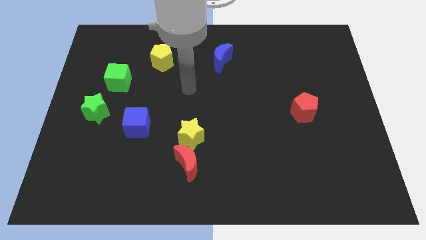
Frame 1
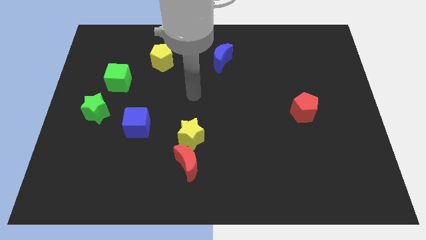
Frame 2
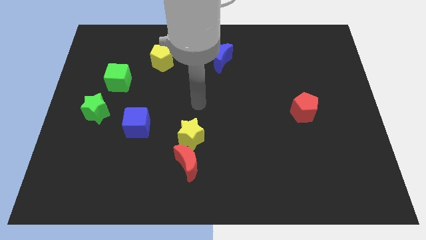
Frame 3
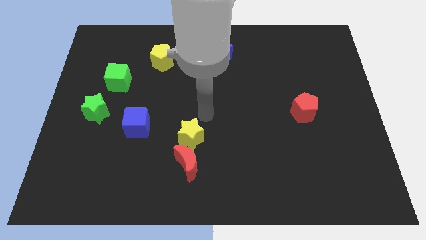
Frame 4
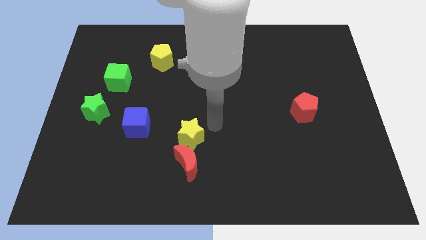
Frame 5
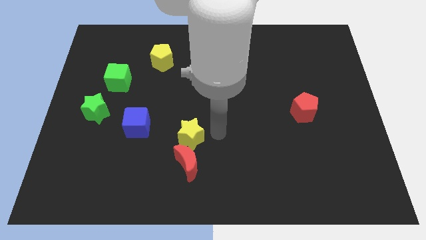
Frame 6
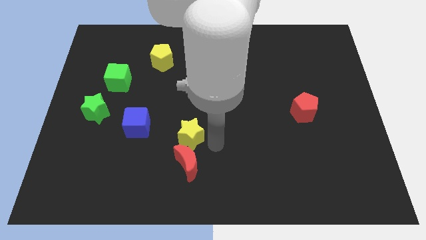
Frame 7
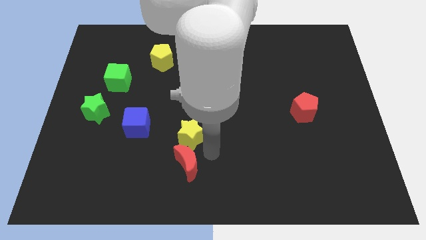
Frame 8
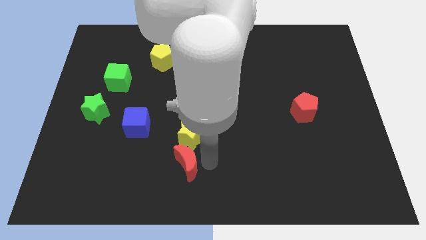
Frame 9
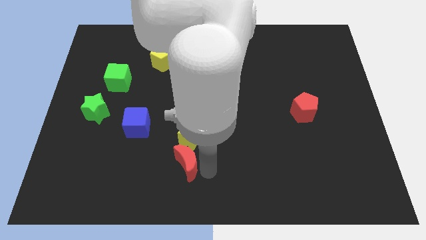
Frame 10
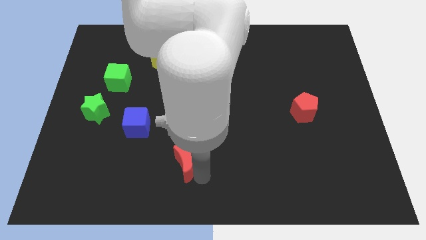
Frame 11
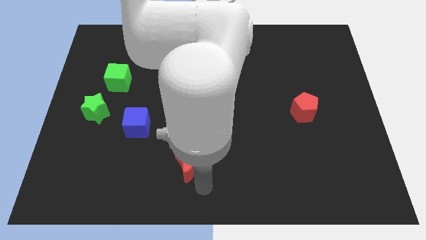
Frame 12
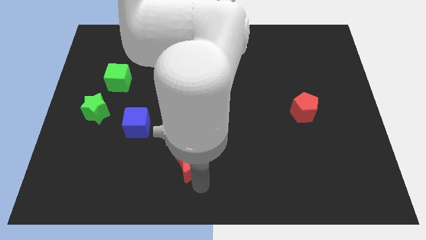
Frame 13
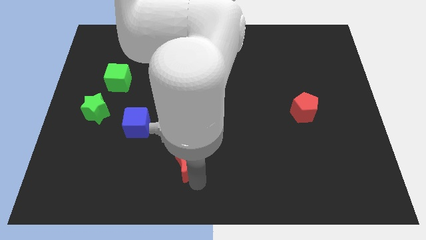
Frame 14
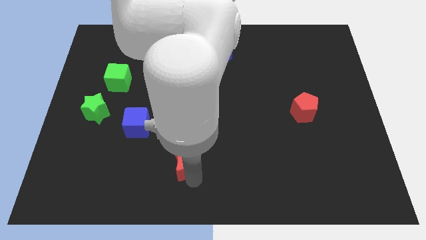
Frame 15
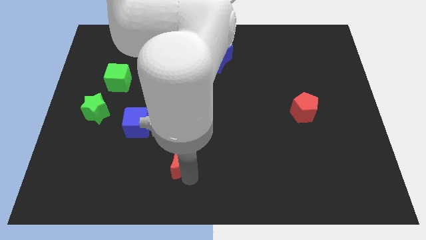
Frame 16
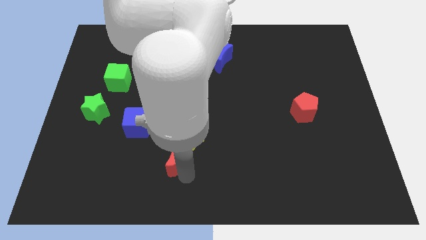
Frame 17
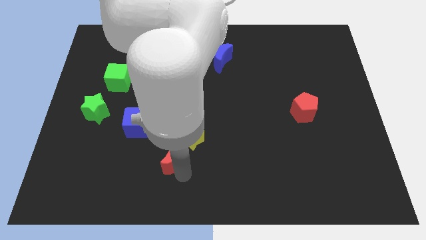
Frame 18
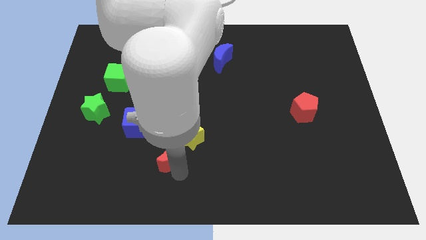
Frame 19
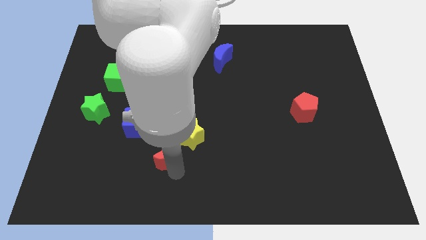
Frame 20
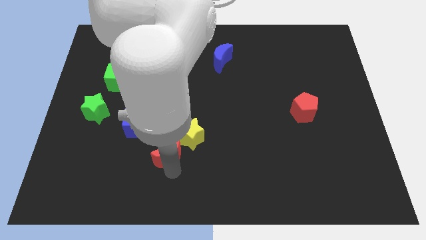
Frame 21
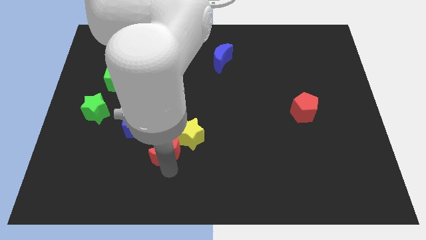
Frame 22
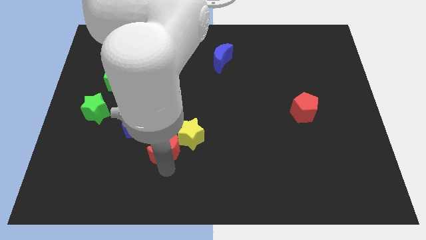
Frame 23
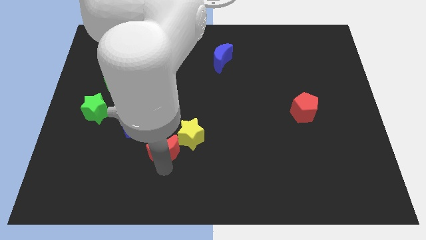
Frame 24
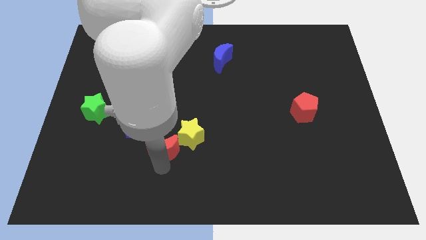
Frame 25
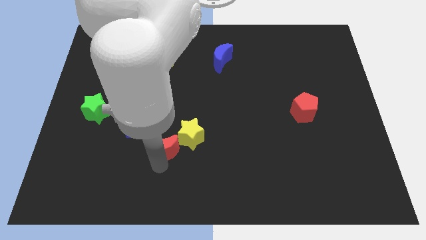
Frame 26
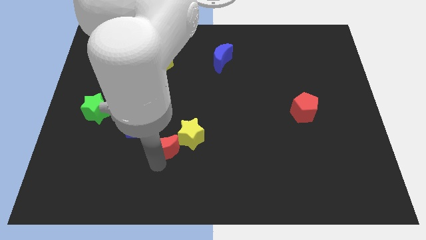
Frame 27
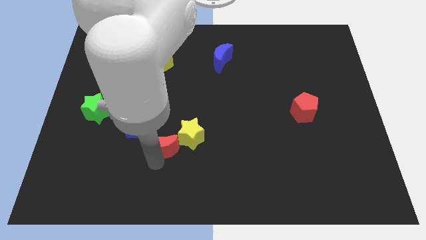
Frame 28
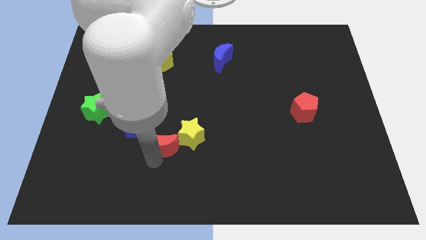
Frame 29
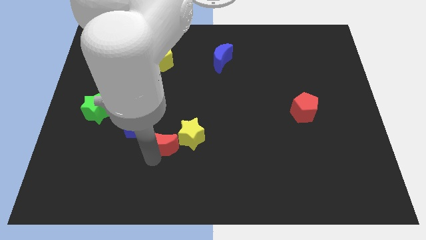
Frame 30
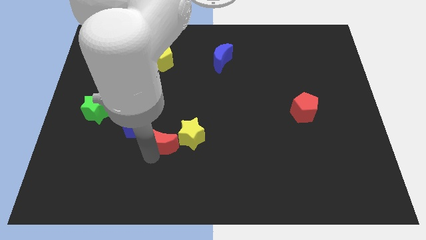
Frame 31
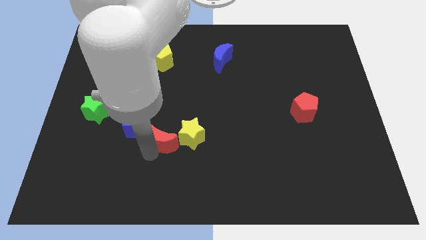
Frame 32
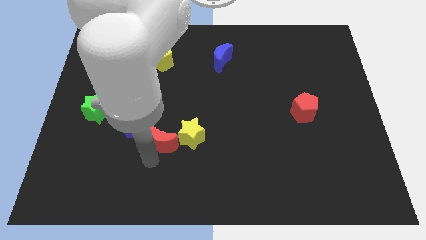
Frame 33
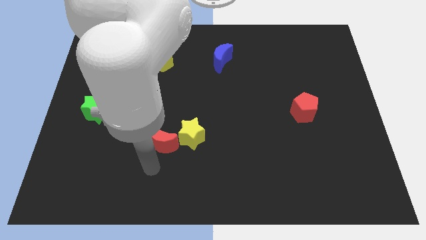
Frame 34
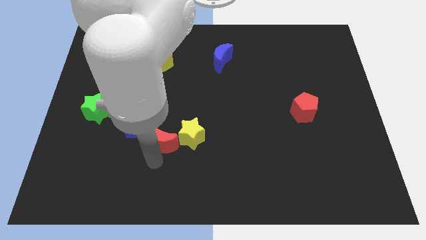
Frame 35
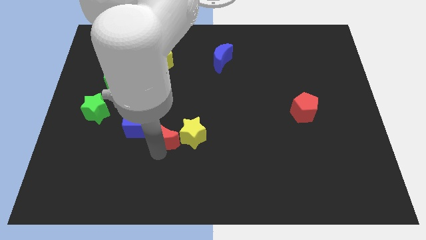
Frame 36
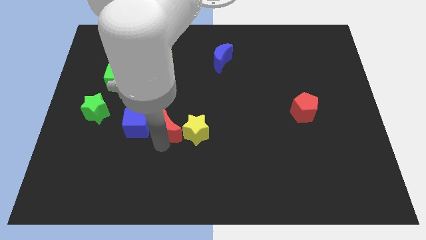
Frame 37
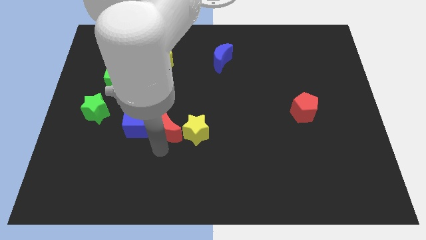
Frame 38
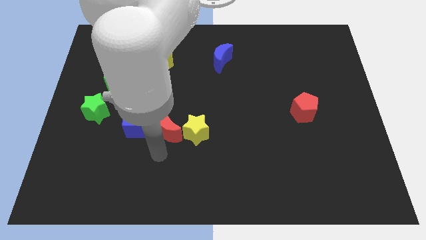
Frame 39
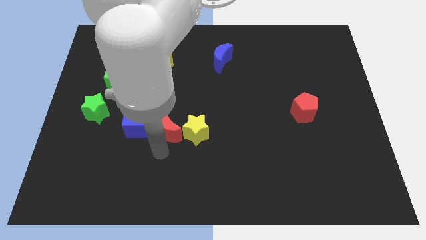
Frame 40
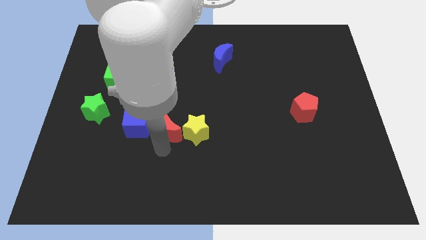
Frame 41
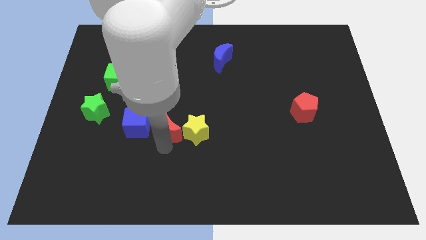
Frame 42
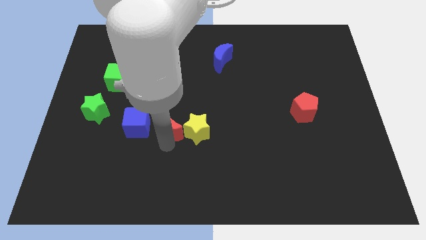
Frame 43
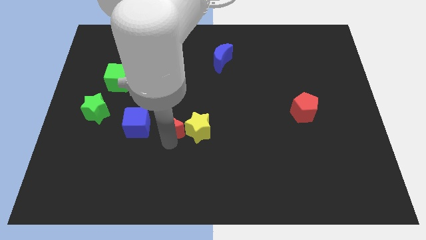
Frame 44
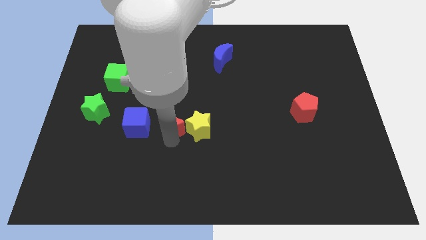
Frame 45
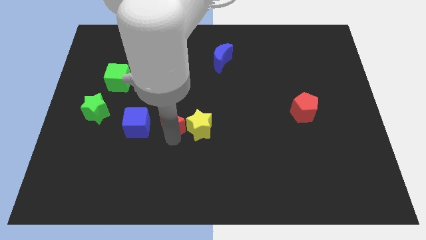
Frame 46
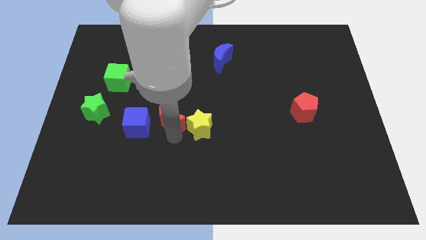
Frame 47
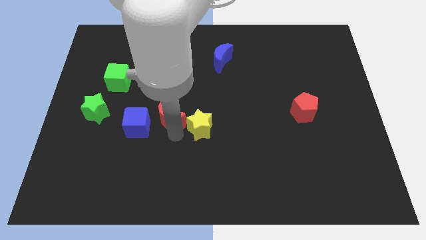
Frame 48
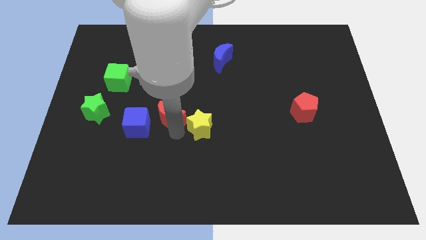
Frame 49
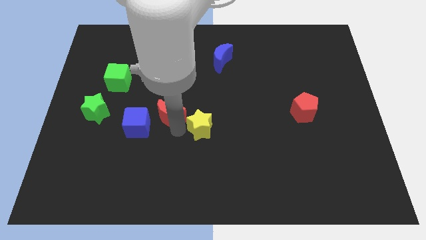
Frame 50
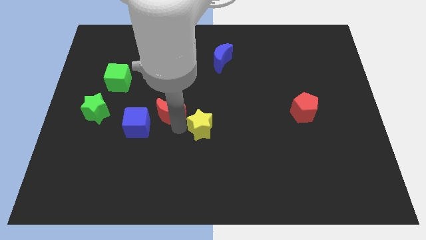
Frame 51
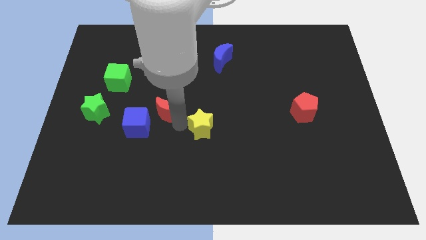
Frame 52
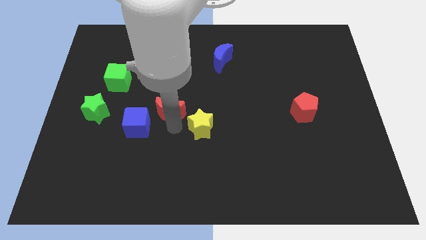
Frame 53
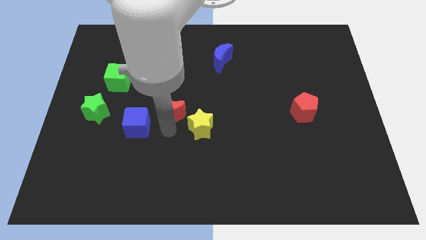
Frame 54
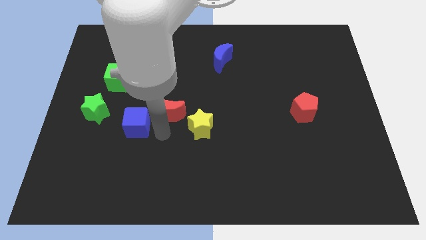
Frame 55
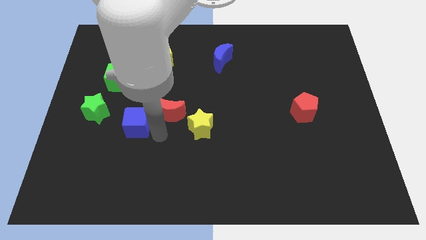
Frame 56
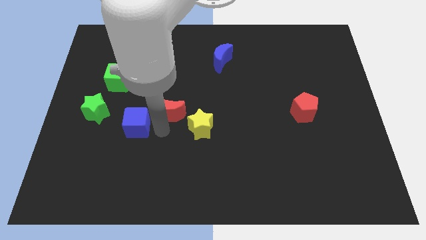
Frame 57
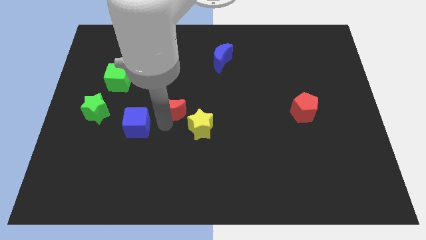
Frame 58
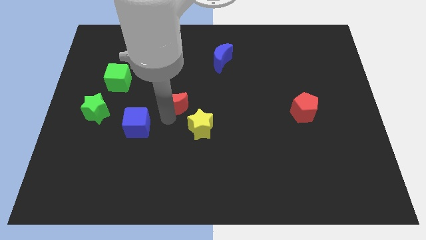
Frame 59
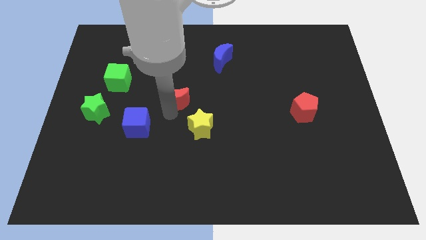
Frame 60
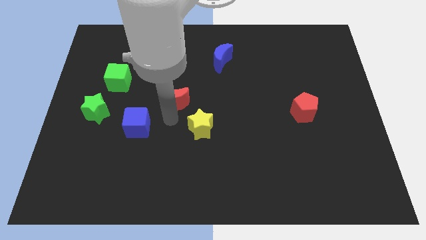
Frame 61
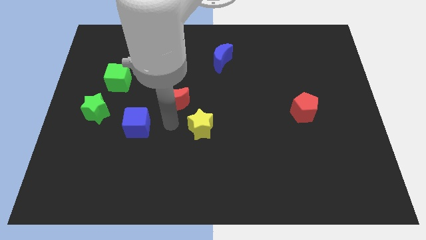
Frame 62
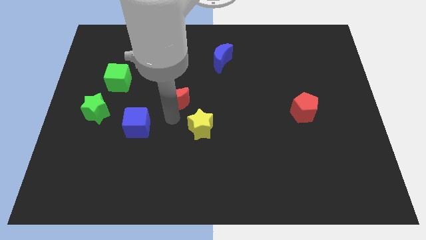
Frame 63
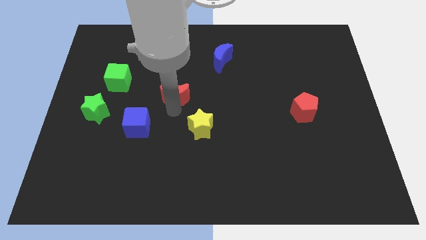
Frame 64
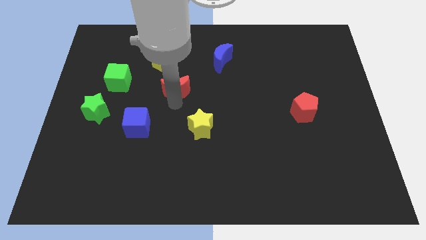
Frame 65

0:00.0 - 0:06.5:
put the red moon to the bottom right side of the yellow pentagon
